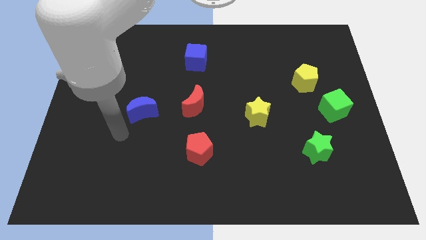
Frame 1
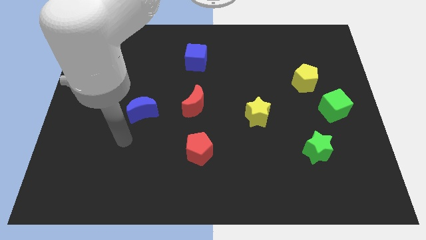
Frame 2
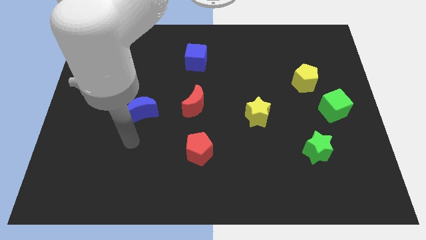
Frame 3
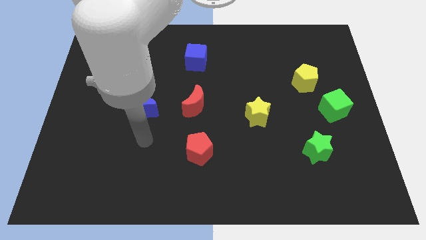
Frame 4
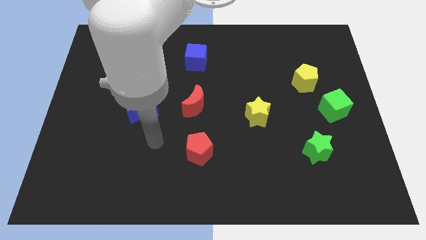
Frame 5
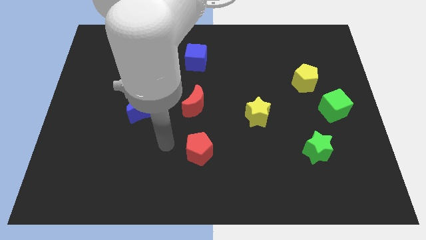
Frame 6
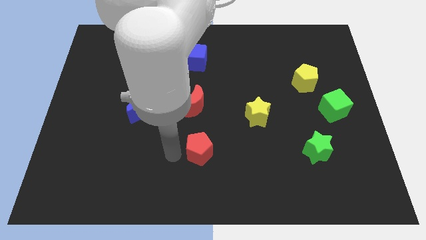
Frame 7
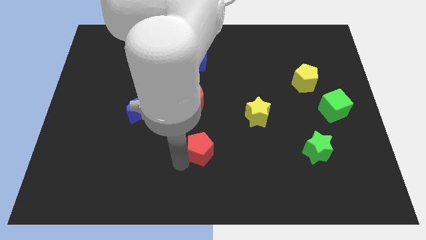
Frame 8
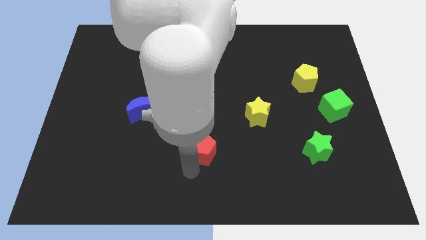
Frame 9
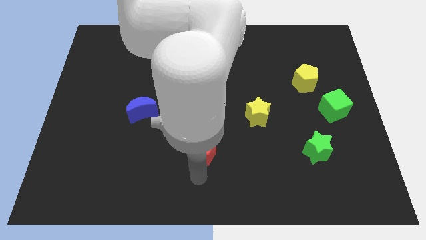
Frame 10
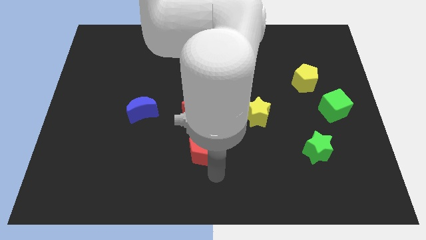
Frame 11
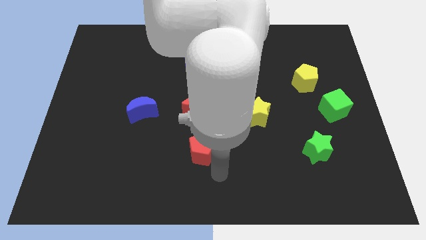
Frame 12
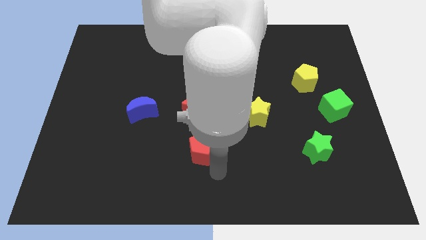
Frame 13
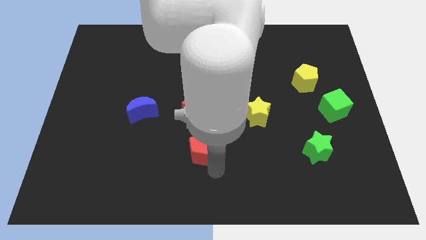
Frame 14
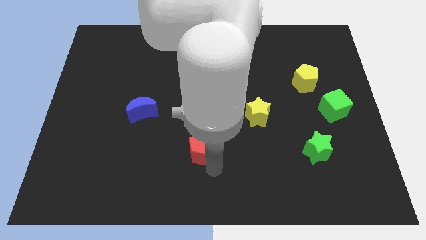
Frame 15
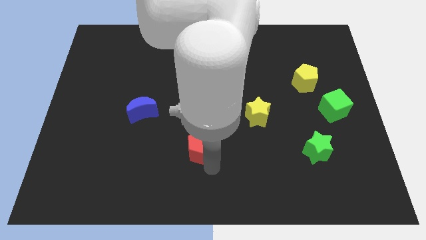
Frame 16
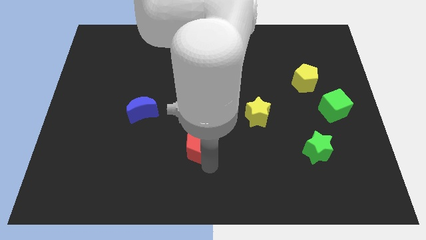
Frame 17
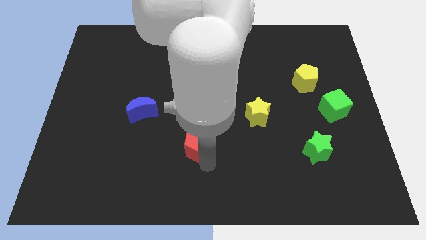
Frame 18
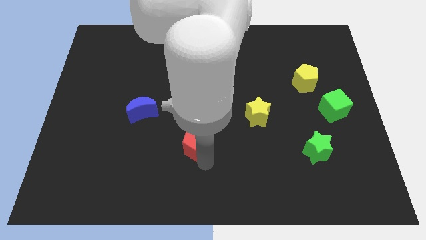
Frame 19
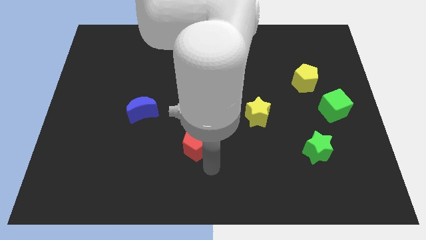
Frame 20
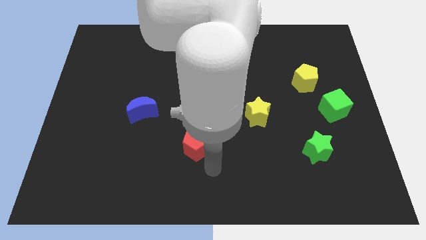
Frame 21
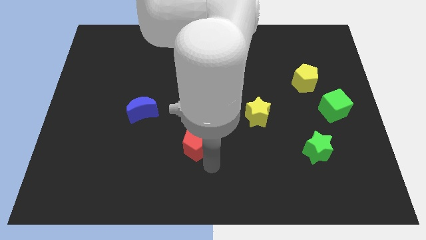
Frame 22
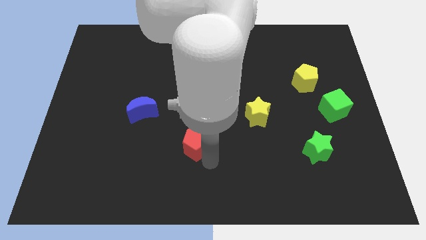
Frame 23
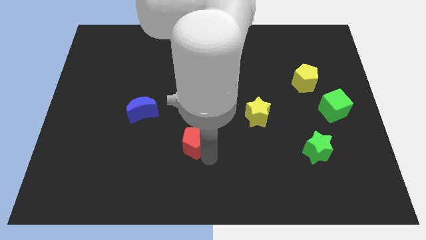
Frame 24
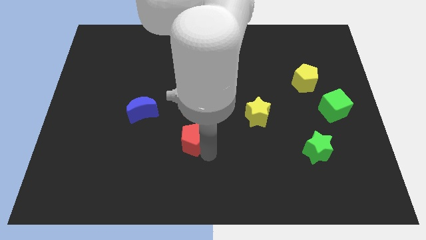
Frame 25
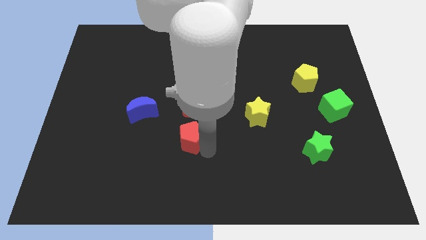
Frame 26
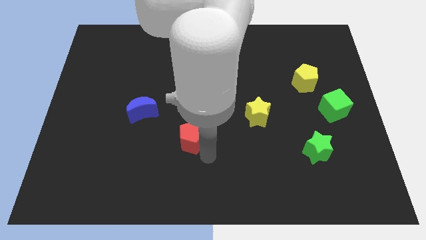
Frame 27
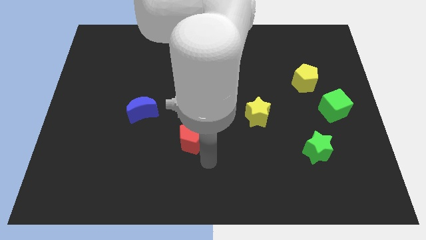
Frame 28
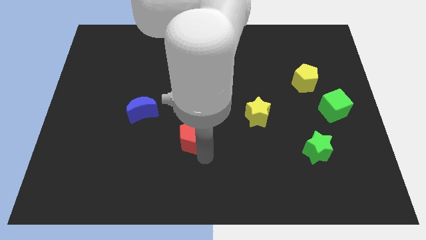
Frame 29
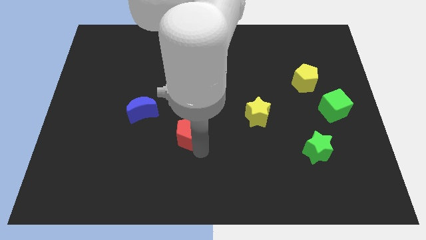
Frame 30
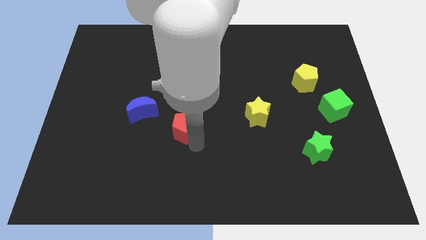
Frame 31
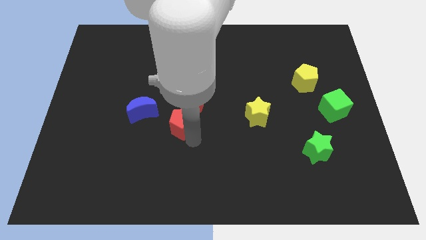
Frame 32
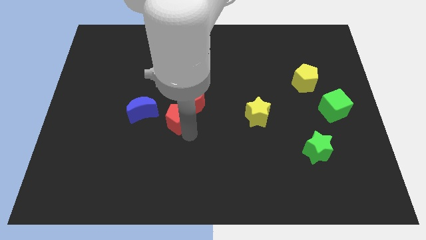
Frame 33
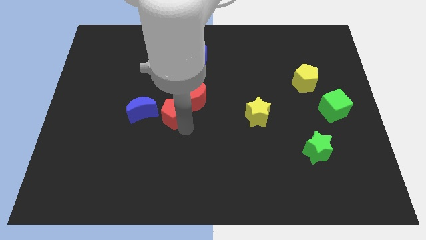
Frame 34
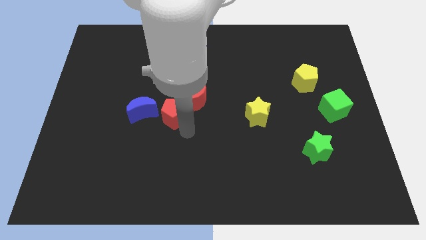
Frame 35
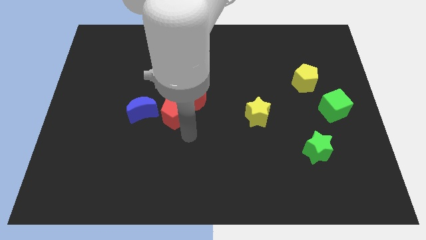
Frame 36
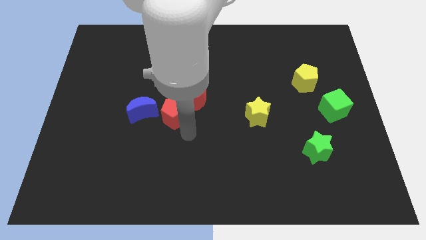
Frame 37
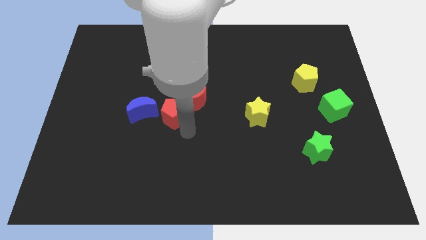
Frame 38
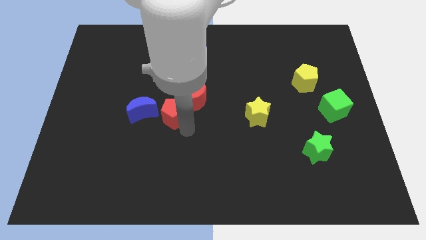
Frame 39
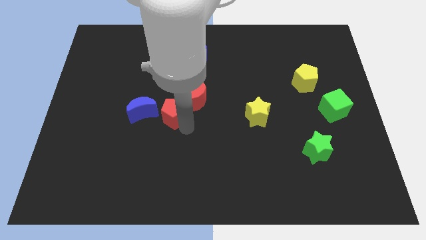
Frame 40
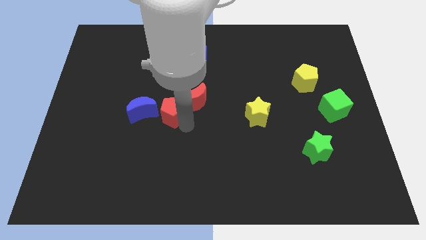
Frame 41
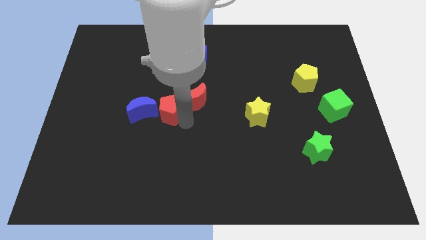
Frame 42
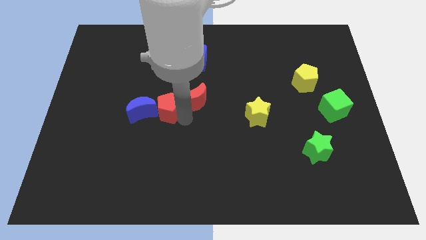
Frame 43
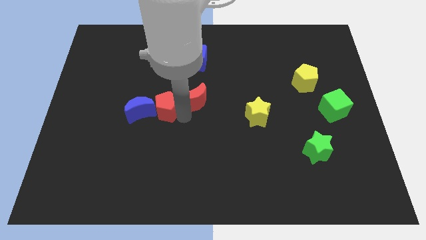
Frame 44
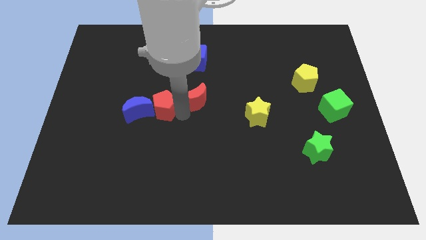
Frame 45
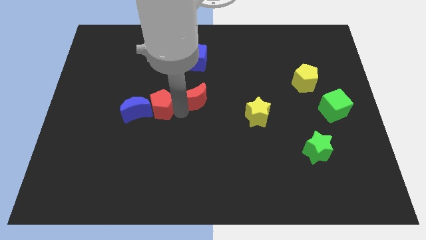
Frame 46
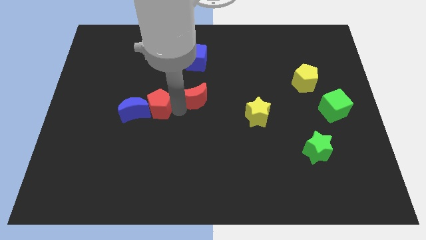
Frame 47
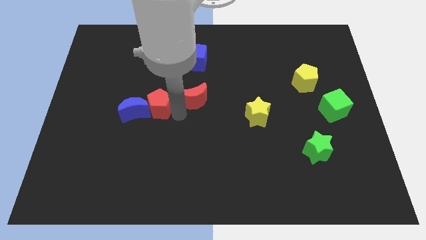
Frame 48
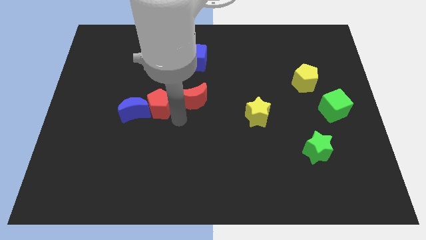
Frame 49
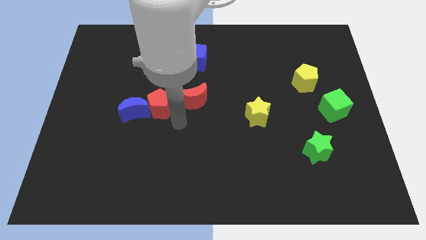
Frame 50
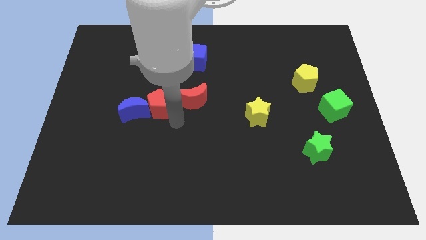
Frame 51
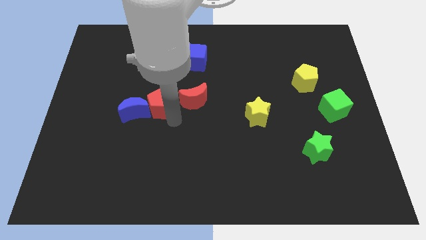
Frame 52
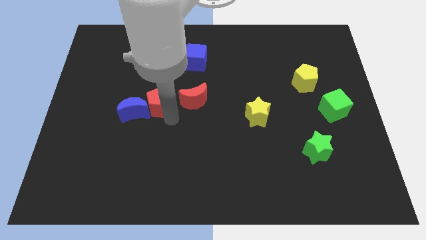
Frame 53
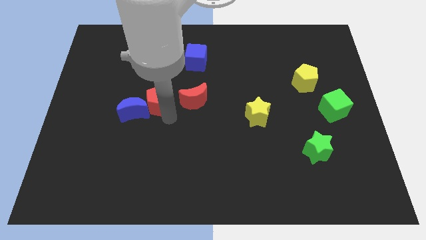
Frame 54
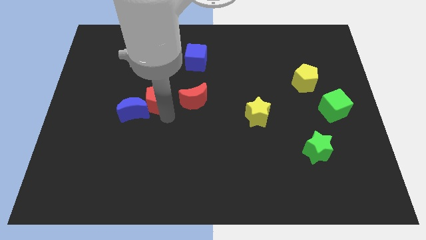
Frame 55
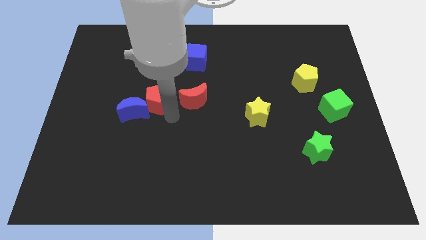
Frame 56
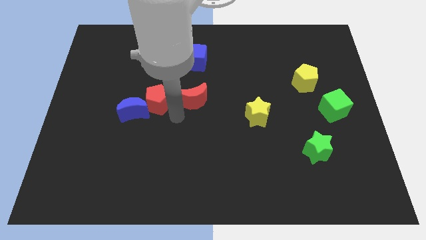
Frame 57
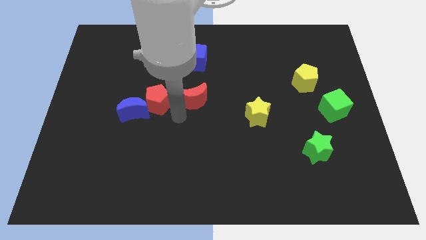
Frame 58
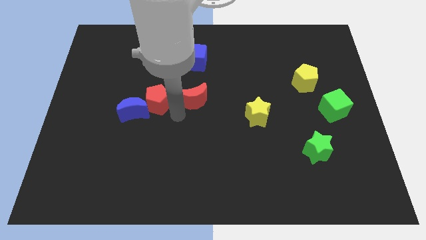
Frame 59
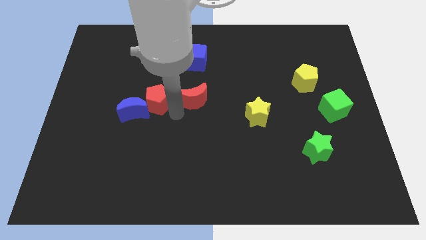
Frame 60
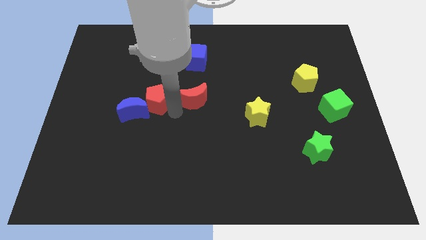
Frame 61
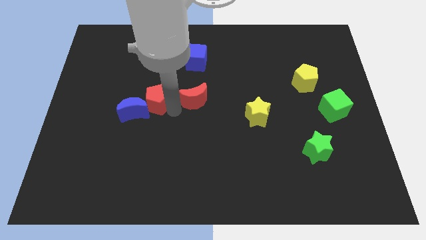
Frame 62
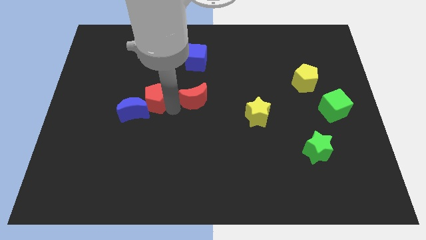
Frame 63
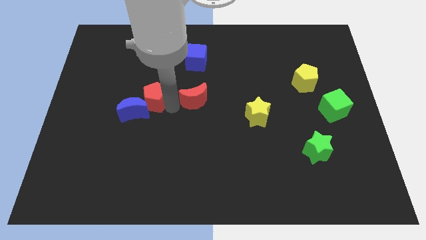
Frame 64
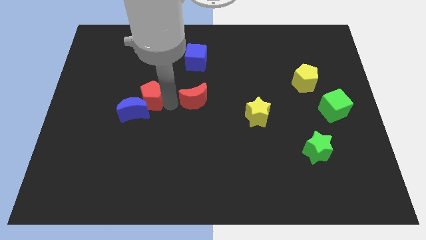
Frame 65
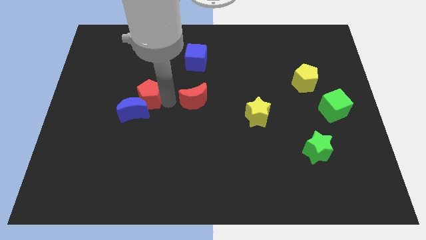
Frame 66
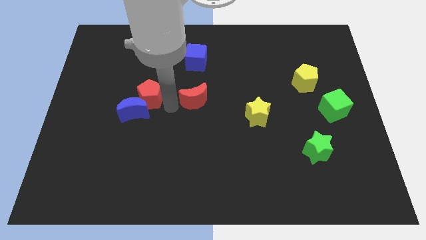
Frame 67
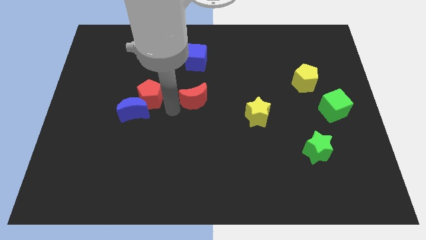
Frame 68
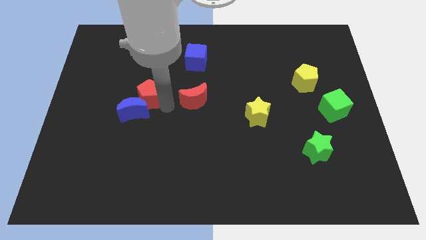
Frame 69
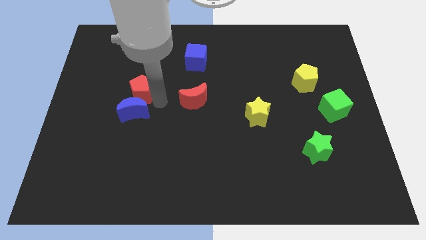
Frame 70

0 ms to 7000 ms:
slide the red pentagon diagonally up and to the left

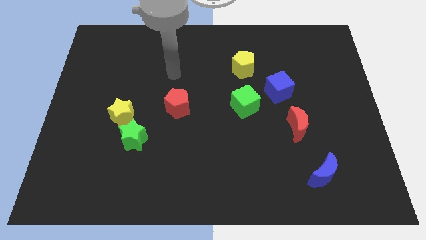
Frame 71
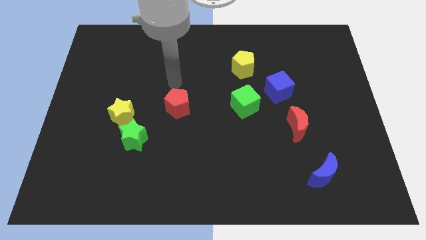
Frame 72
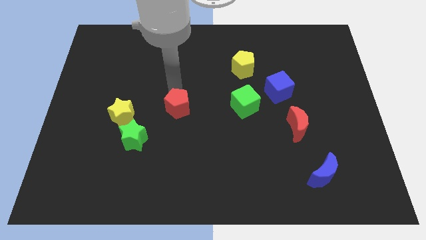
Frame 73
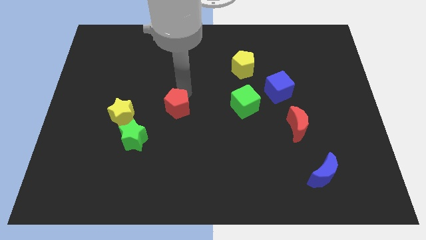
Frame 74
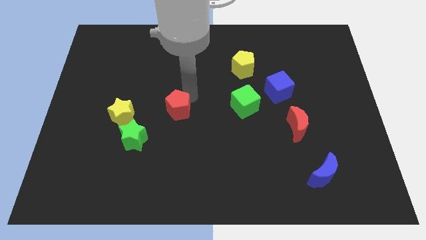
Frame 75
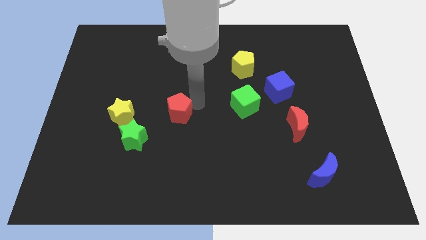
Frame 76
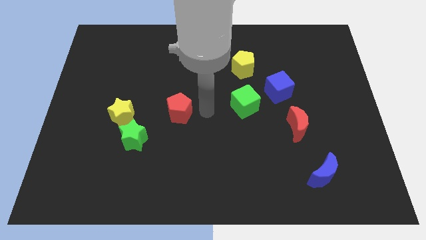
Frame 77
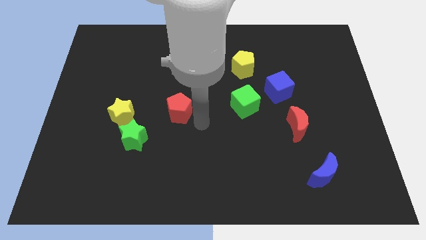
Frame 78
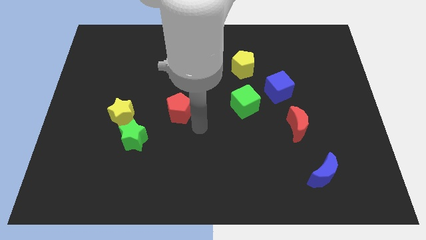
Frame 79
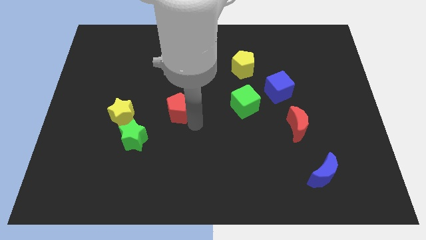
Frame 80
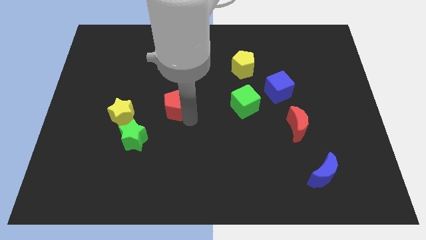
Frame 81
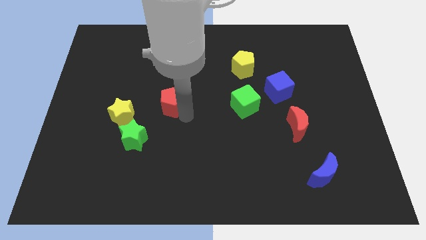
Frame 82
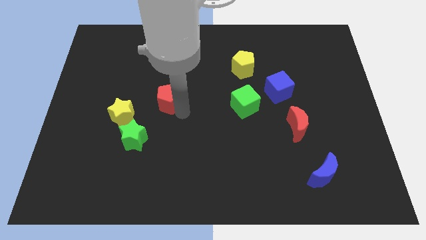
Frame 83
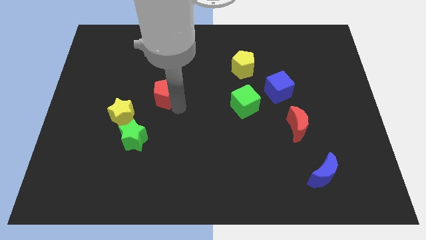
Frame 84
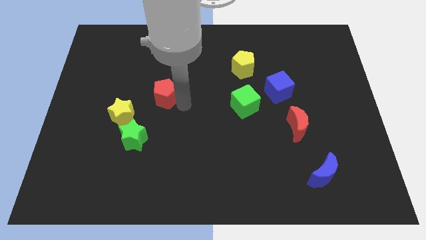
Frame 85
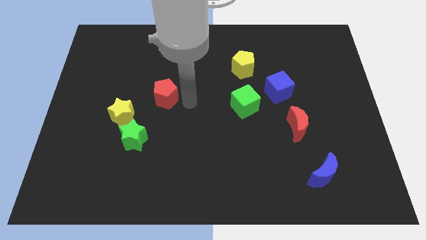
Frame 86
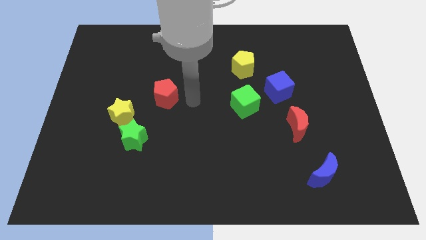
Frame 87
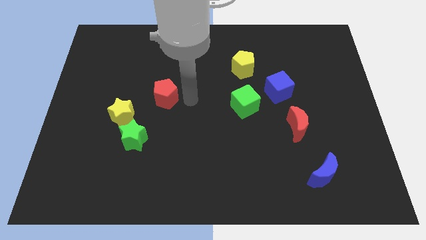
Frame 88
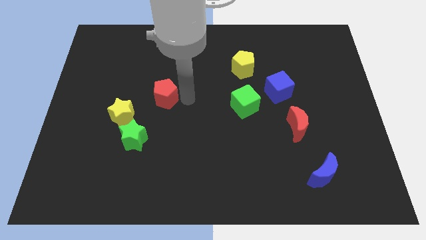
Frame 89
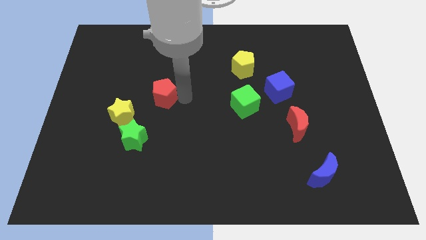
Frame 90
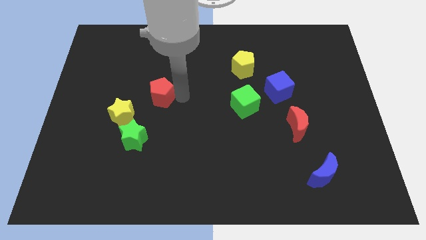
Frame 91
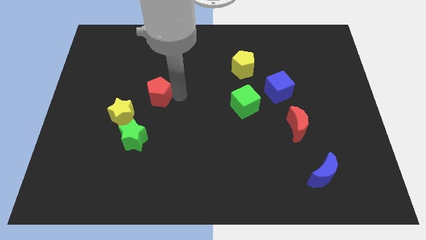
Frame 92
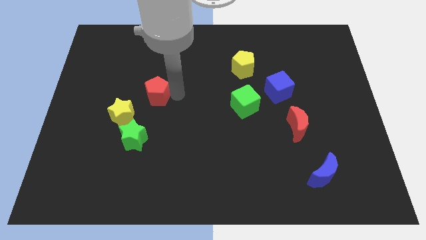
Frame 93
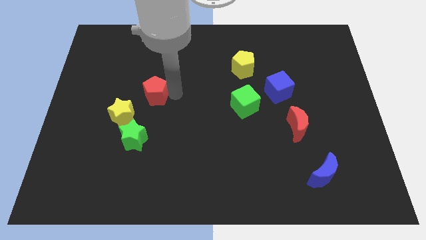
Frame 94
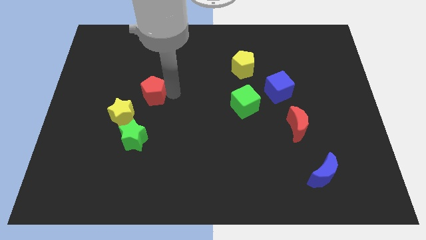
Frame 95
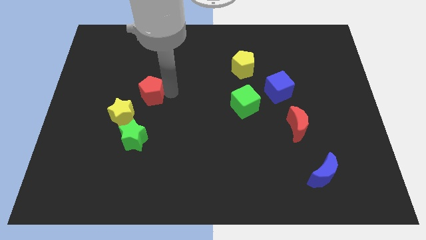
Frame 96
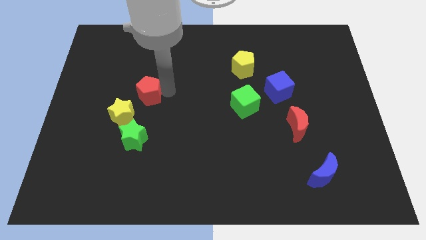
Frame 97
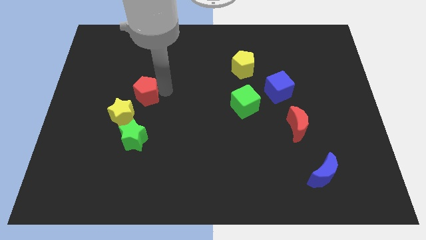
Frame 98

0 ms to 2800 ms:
slide the red pentagon a little bit left
